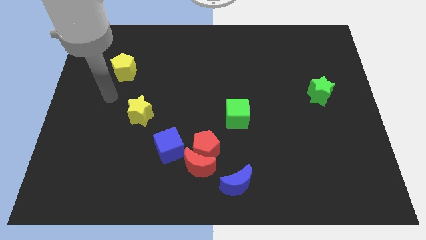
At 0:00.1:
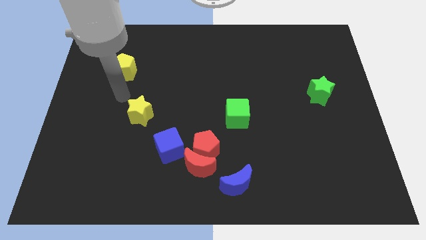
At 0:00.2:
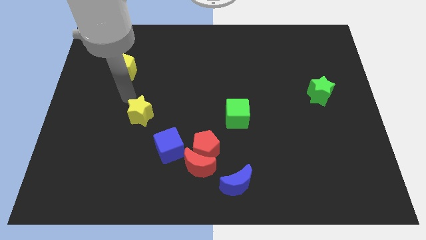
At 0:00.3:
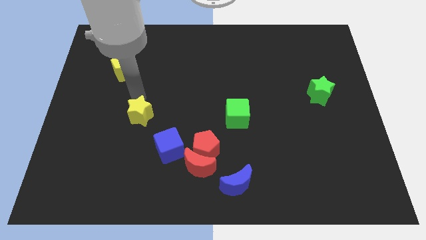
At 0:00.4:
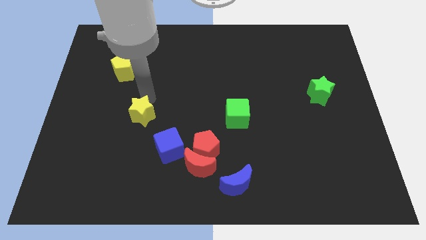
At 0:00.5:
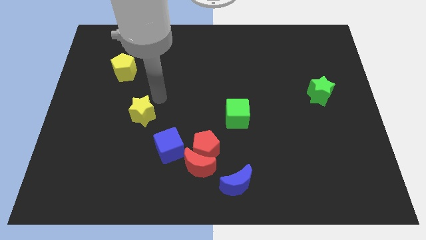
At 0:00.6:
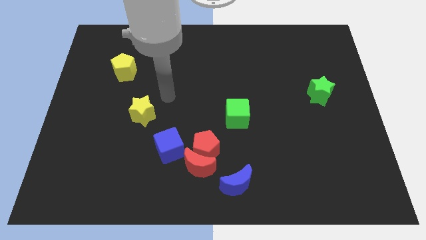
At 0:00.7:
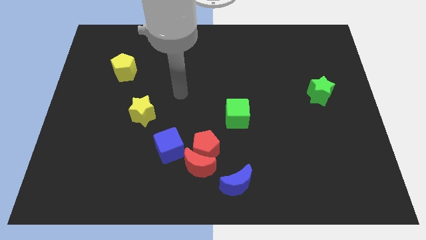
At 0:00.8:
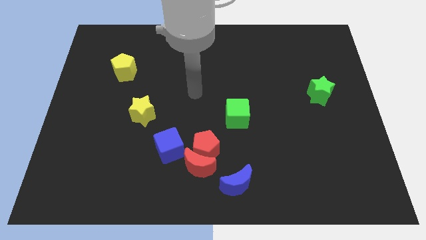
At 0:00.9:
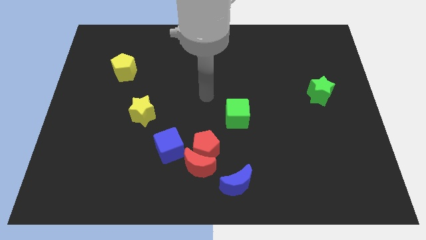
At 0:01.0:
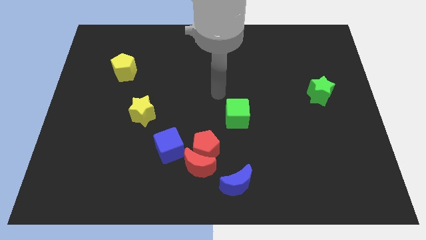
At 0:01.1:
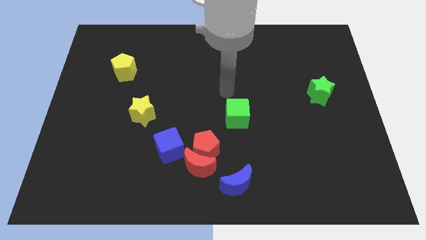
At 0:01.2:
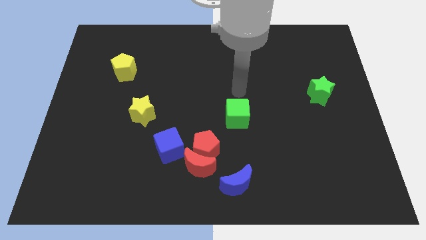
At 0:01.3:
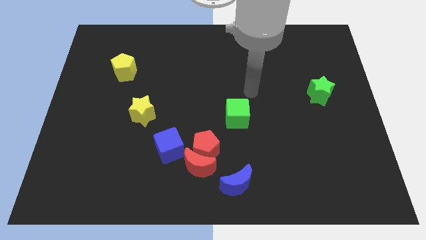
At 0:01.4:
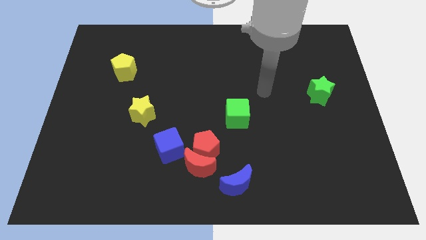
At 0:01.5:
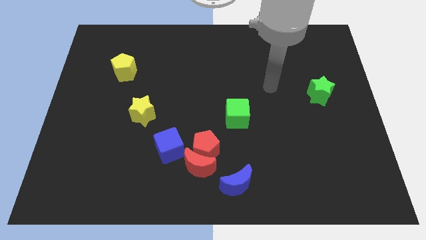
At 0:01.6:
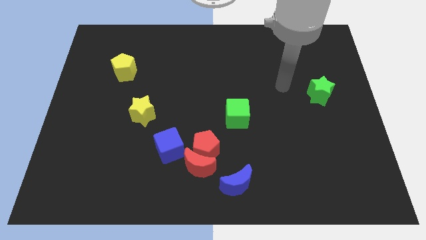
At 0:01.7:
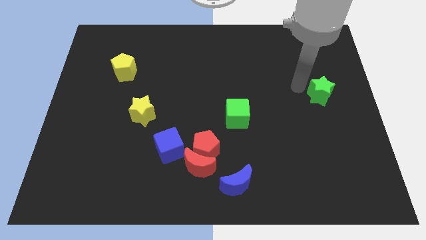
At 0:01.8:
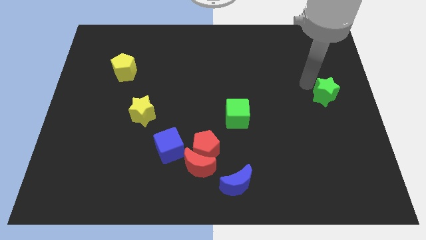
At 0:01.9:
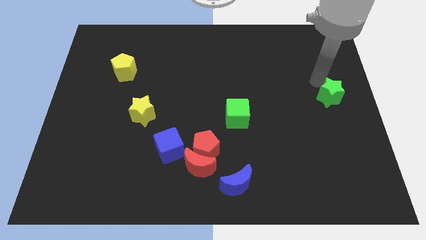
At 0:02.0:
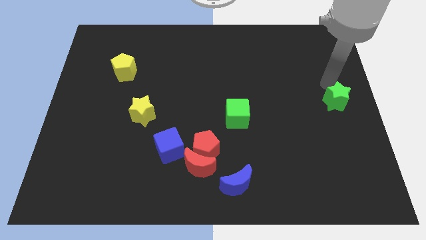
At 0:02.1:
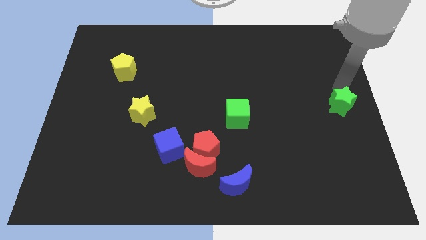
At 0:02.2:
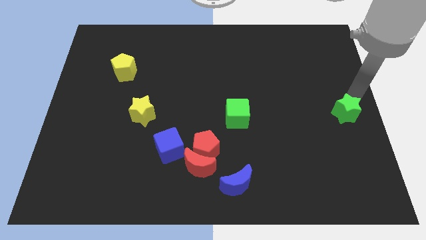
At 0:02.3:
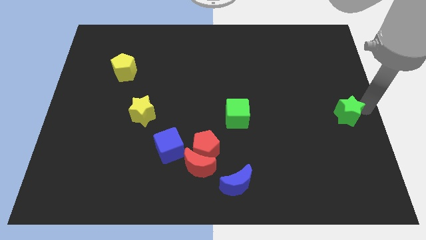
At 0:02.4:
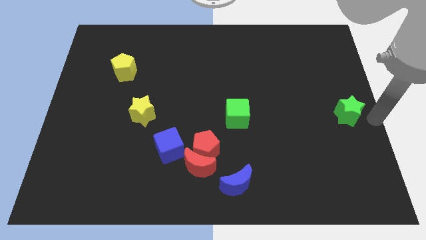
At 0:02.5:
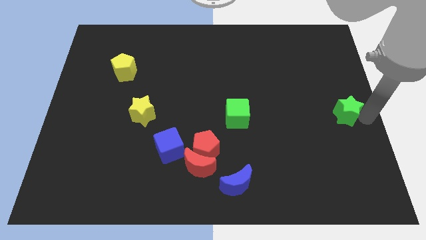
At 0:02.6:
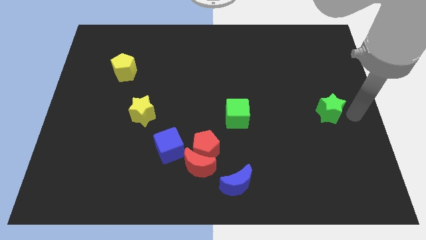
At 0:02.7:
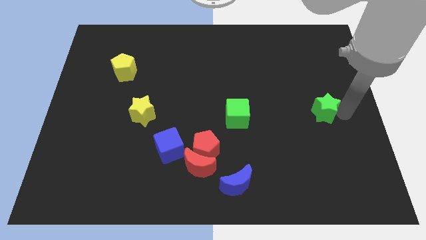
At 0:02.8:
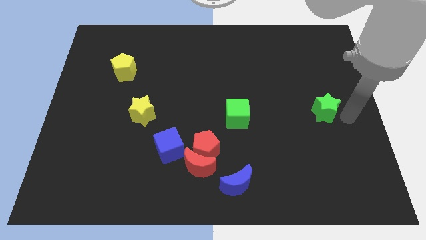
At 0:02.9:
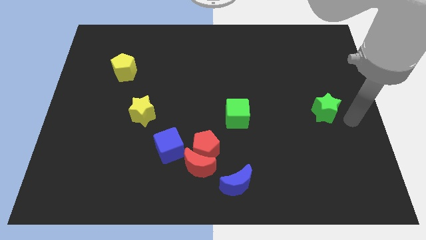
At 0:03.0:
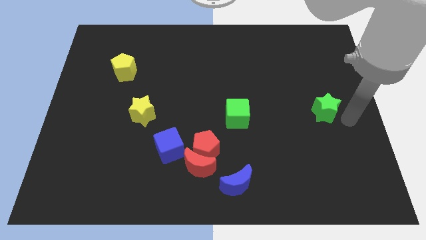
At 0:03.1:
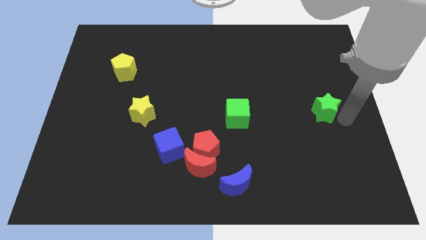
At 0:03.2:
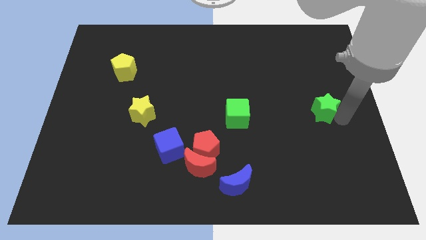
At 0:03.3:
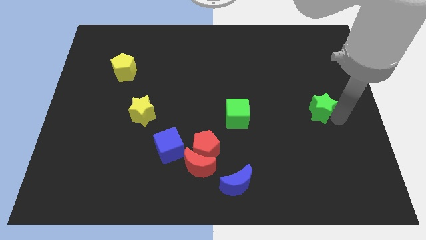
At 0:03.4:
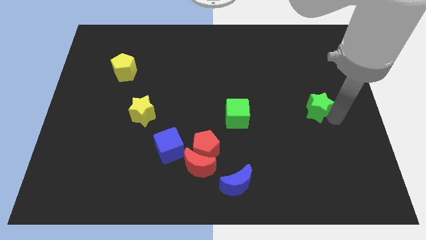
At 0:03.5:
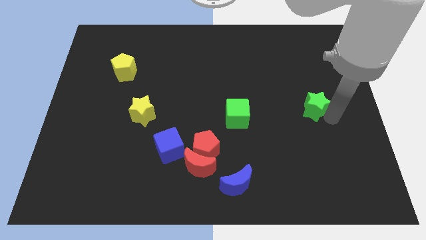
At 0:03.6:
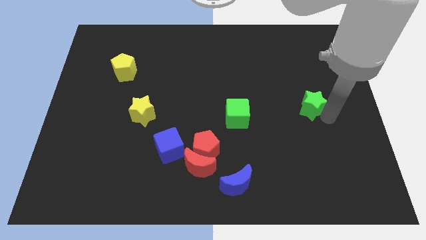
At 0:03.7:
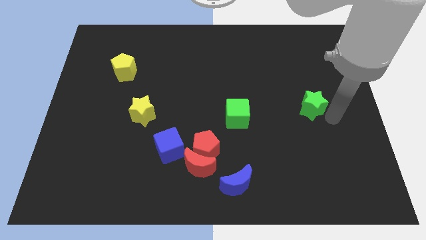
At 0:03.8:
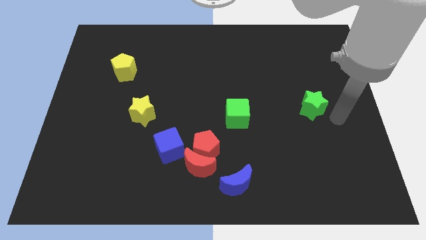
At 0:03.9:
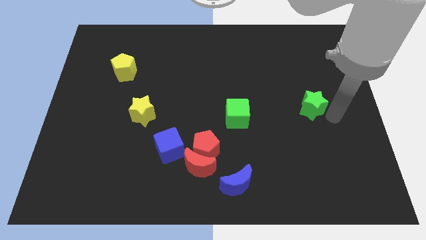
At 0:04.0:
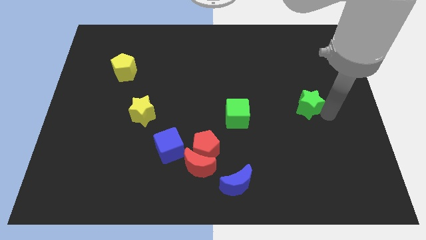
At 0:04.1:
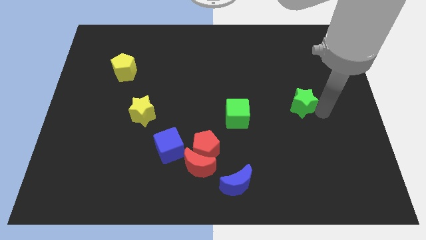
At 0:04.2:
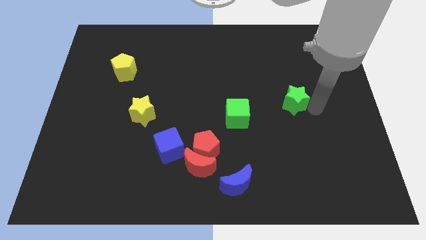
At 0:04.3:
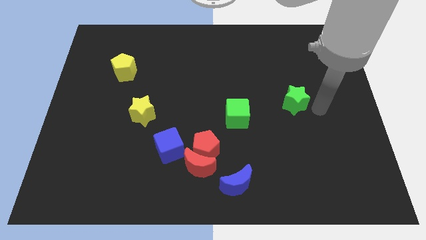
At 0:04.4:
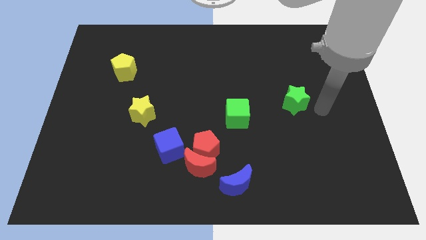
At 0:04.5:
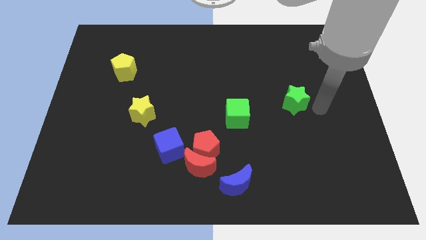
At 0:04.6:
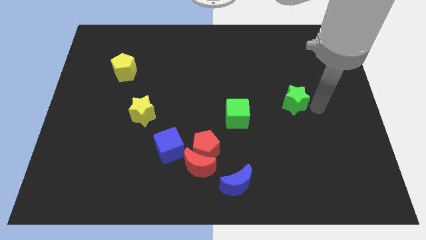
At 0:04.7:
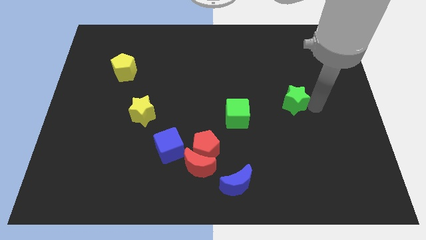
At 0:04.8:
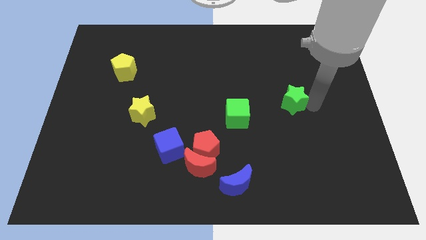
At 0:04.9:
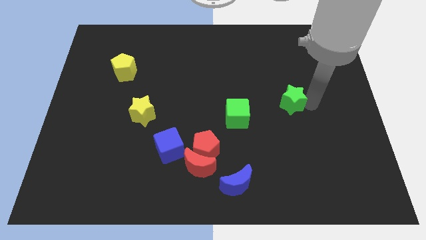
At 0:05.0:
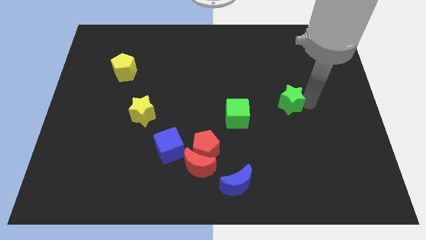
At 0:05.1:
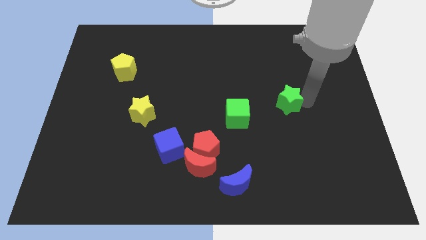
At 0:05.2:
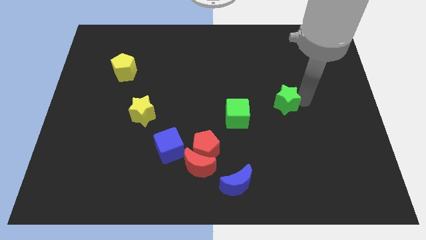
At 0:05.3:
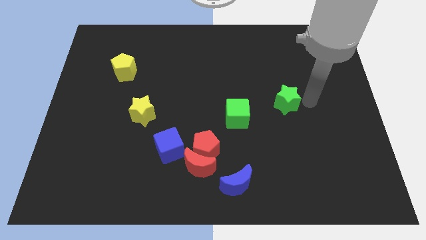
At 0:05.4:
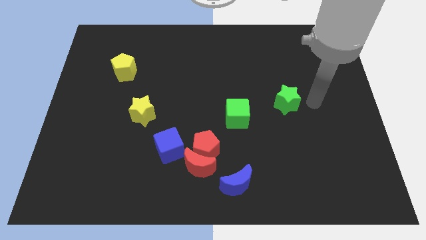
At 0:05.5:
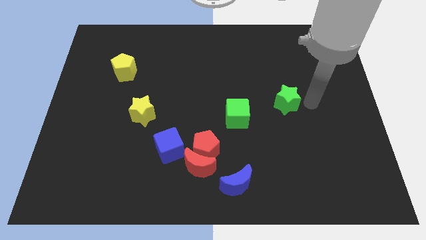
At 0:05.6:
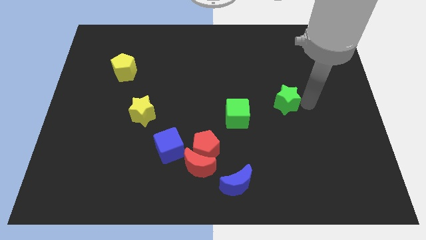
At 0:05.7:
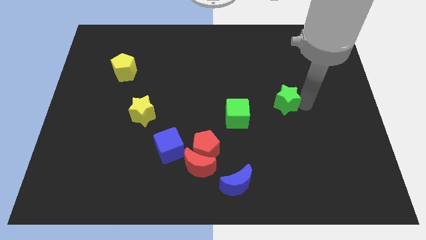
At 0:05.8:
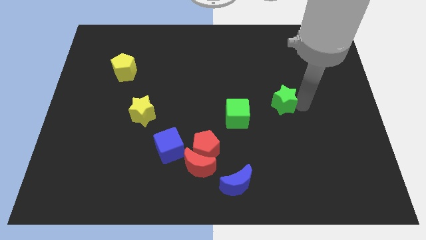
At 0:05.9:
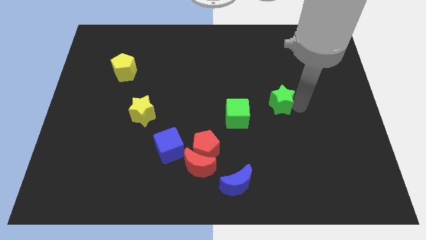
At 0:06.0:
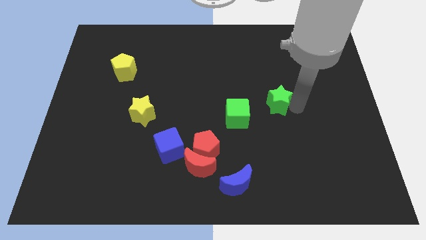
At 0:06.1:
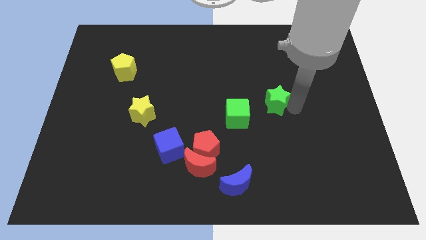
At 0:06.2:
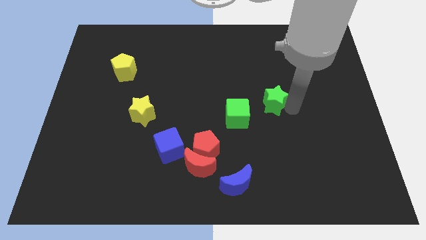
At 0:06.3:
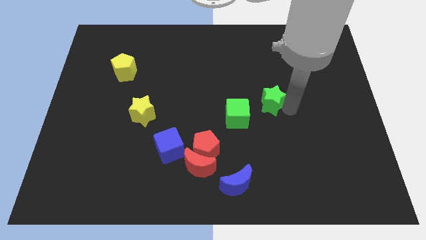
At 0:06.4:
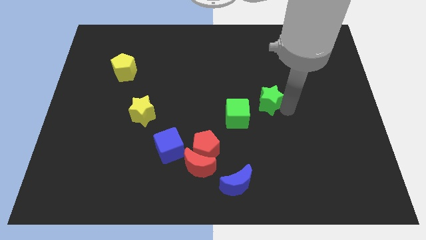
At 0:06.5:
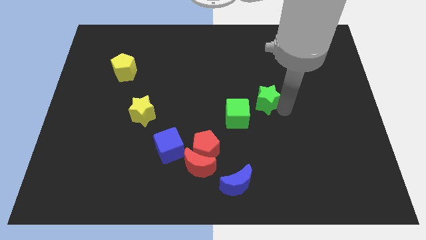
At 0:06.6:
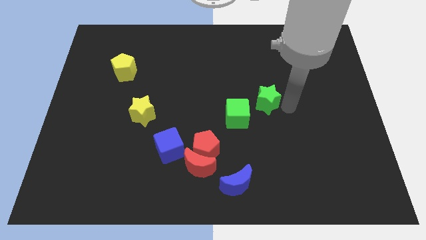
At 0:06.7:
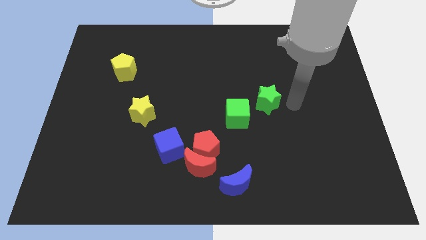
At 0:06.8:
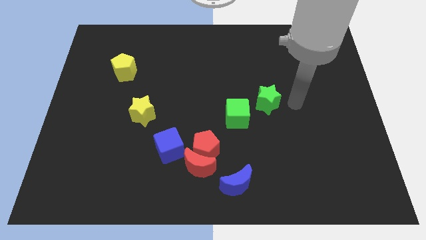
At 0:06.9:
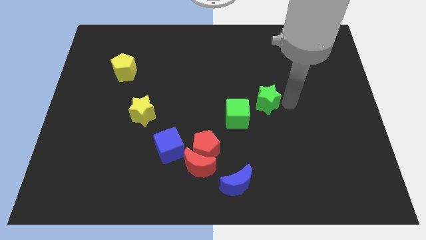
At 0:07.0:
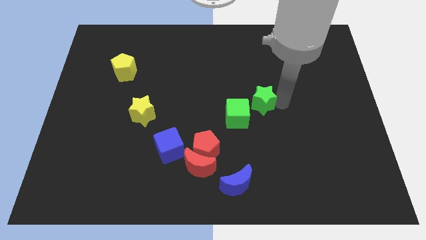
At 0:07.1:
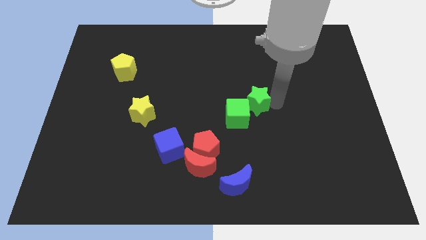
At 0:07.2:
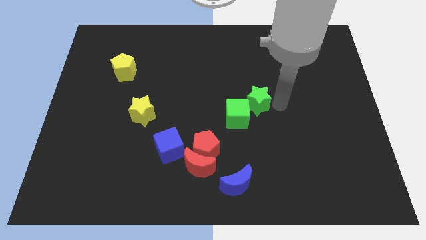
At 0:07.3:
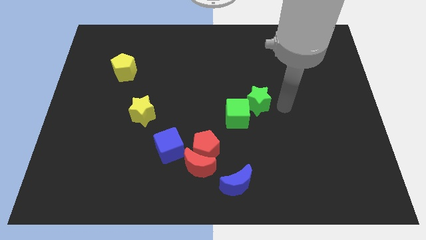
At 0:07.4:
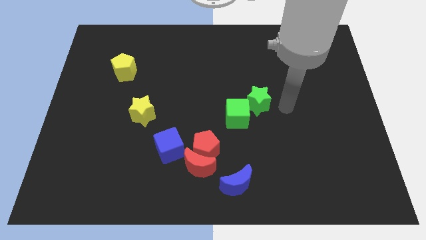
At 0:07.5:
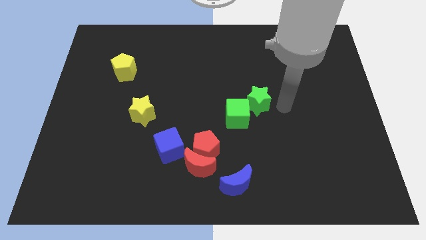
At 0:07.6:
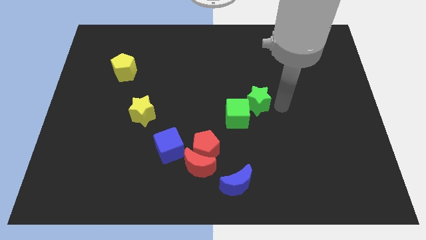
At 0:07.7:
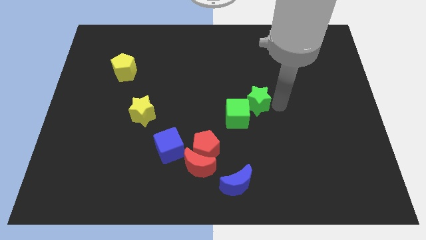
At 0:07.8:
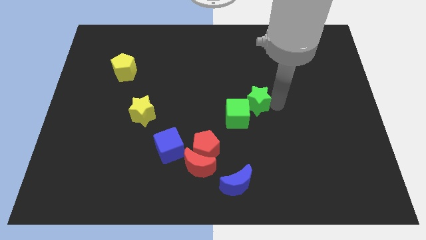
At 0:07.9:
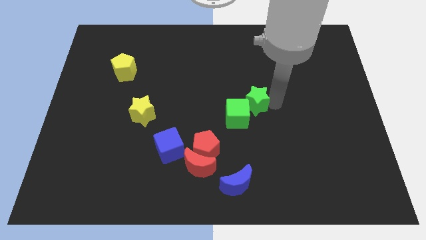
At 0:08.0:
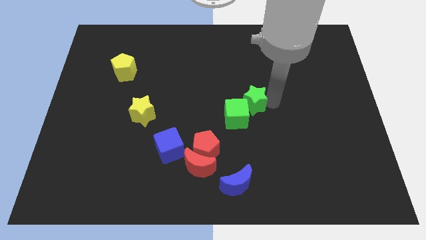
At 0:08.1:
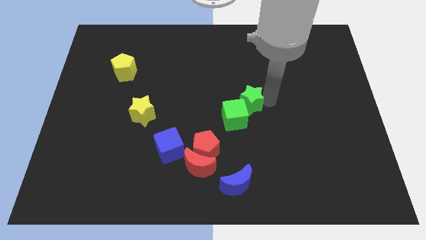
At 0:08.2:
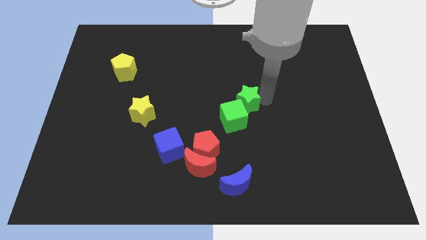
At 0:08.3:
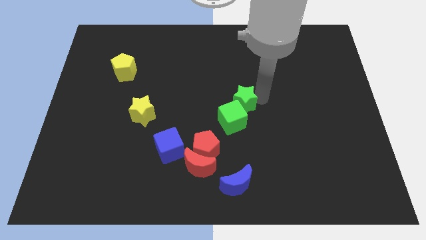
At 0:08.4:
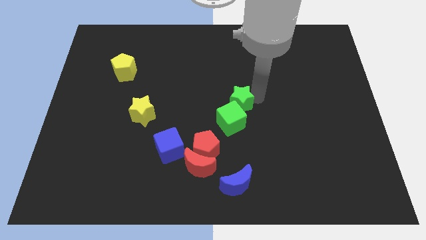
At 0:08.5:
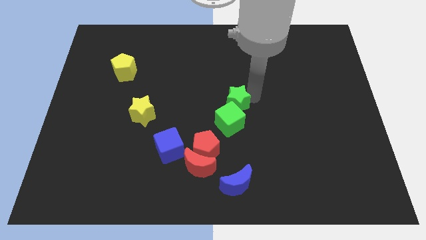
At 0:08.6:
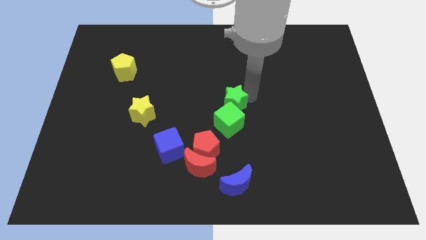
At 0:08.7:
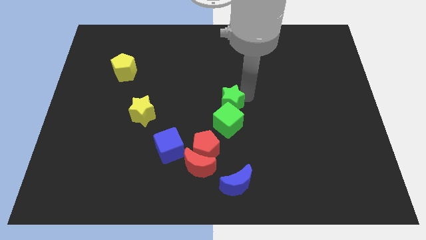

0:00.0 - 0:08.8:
move the green star diagonally up and to the left of the green cube
